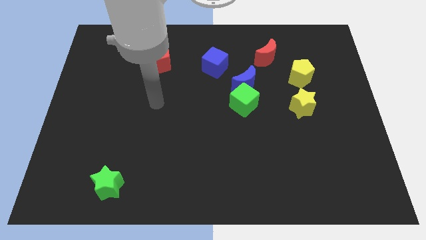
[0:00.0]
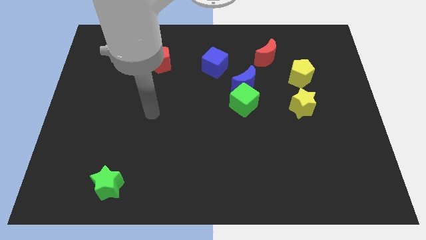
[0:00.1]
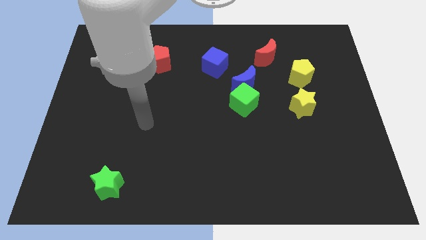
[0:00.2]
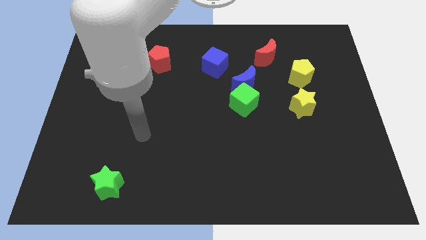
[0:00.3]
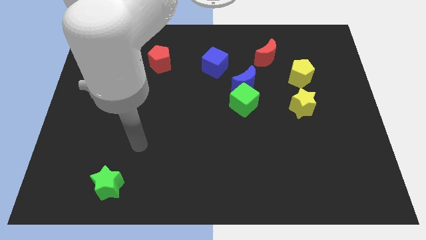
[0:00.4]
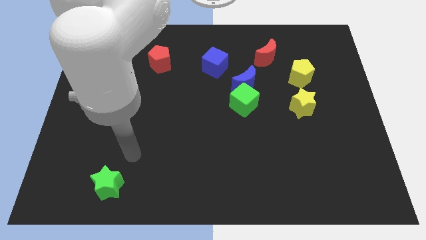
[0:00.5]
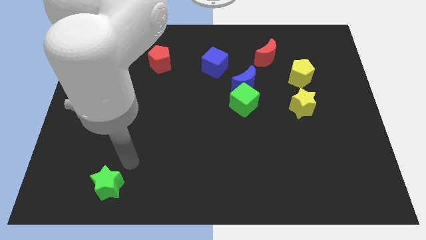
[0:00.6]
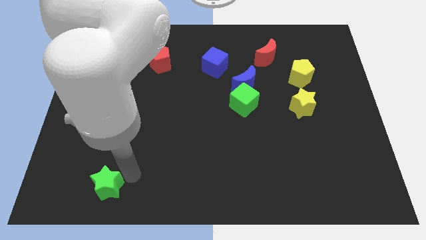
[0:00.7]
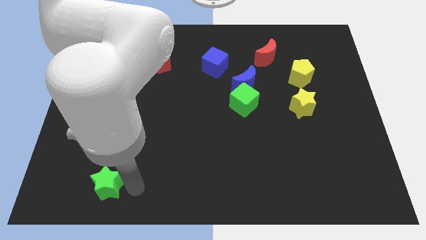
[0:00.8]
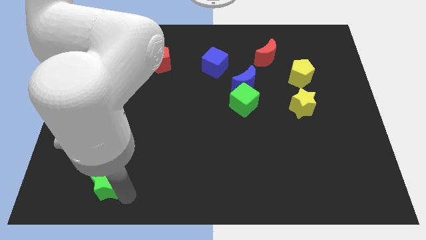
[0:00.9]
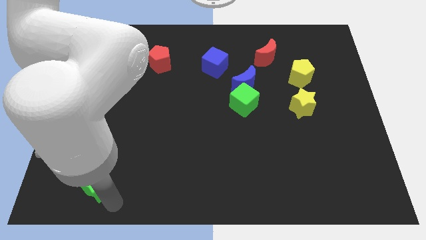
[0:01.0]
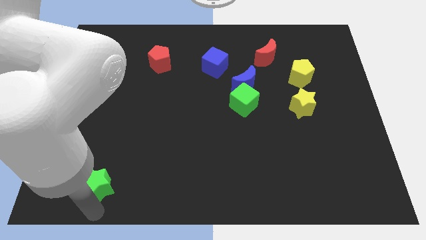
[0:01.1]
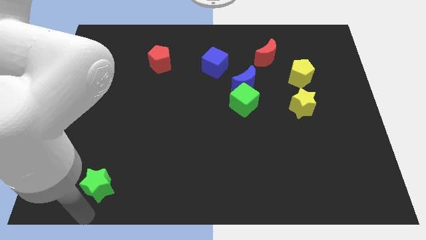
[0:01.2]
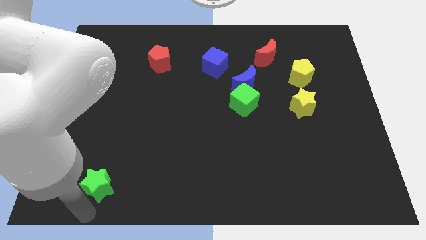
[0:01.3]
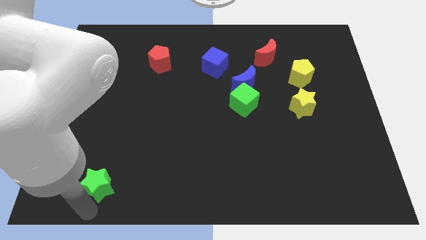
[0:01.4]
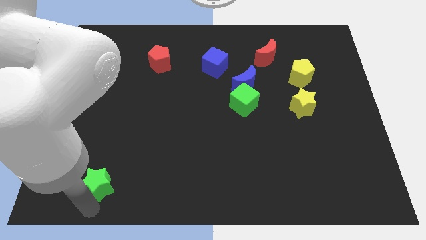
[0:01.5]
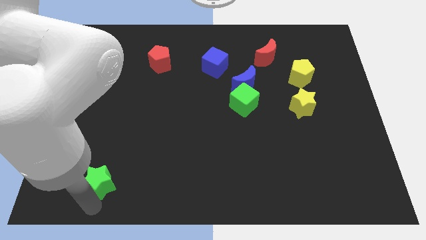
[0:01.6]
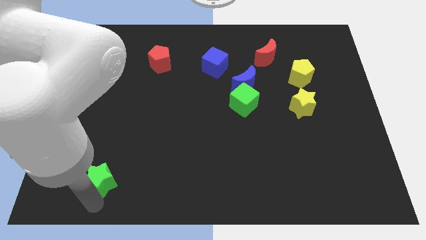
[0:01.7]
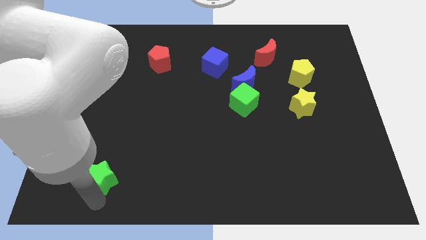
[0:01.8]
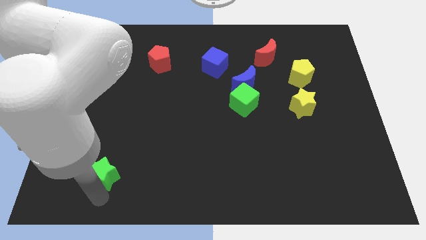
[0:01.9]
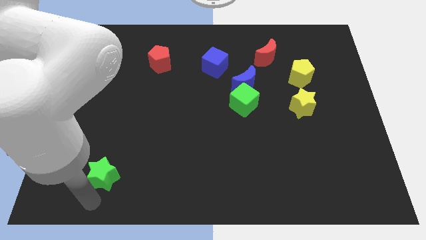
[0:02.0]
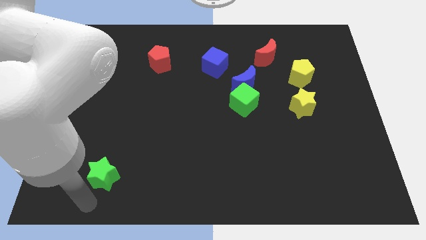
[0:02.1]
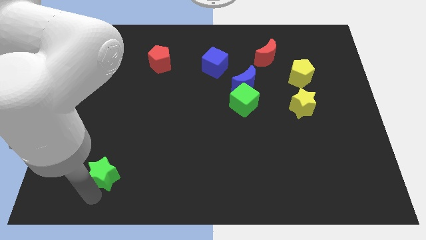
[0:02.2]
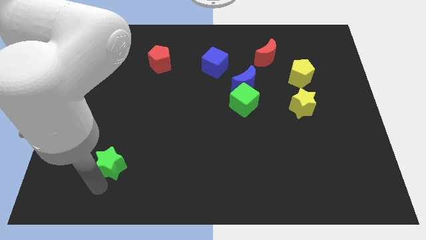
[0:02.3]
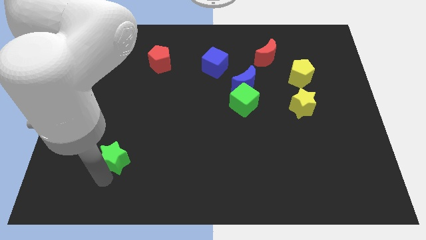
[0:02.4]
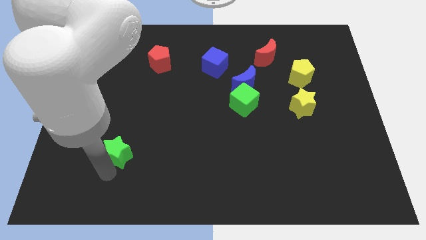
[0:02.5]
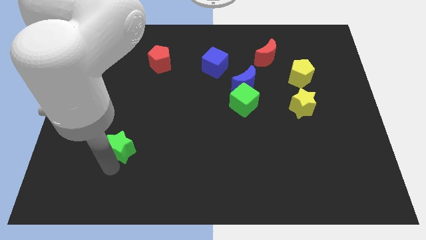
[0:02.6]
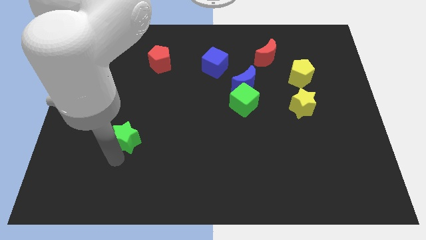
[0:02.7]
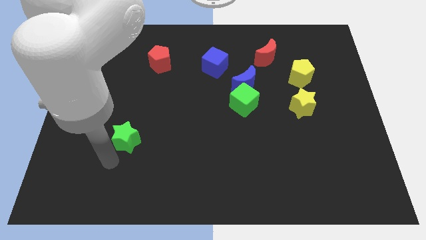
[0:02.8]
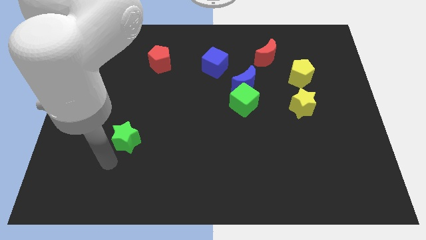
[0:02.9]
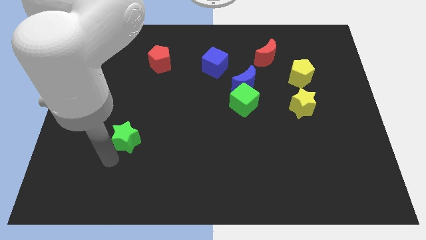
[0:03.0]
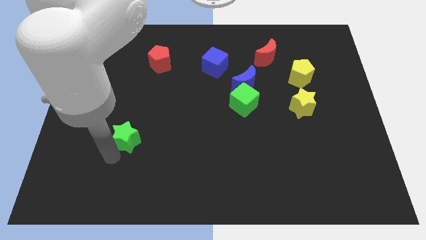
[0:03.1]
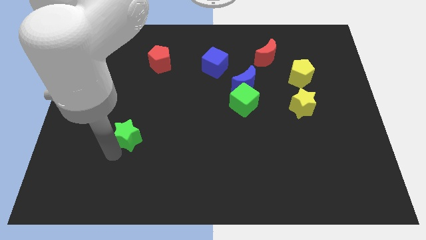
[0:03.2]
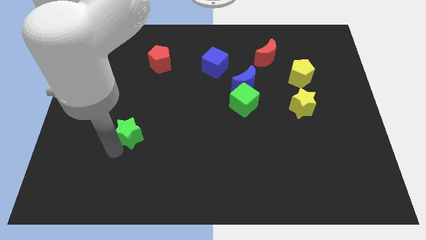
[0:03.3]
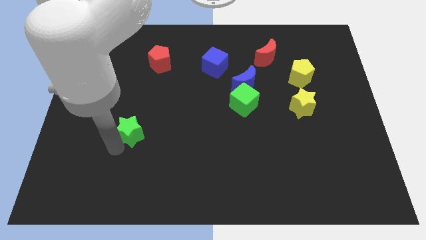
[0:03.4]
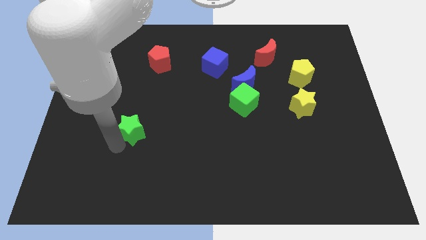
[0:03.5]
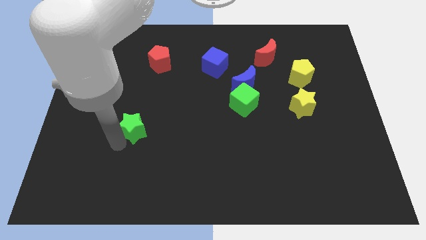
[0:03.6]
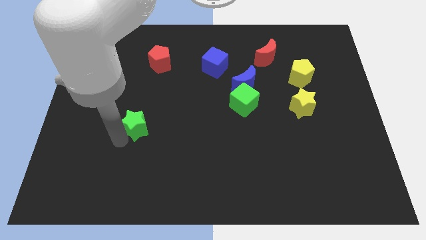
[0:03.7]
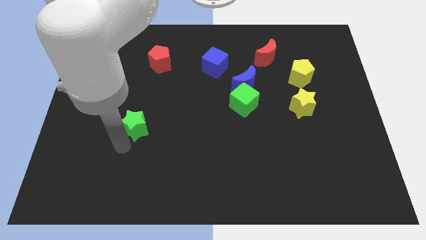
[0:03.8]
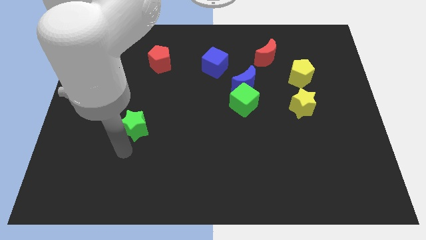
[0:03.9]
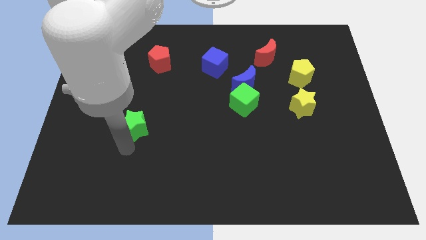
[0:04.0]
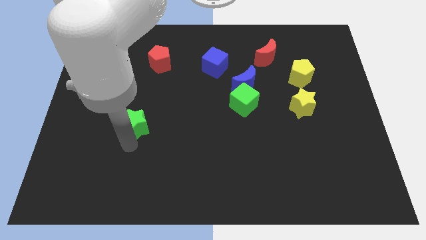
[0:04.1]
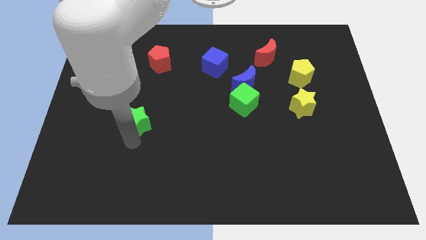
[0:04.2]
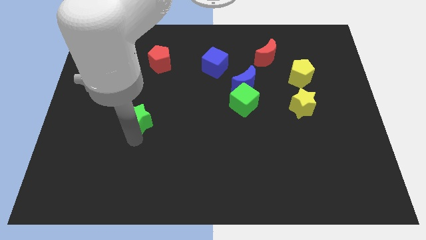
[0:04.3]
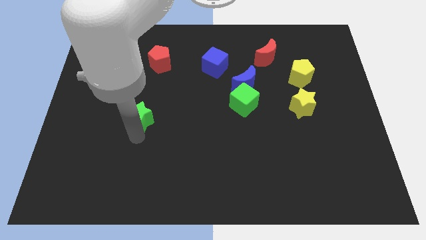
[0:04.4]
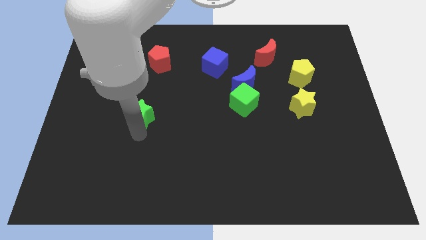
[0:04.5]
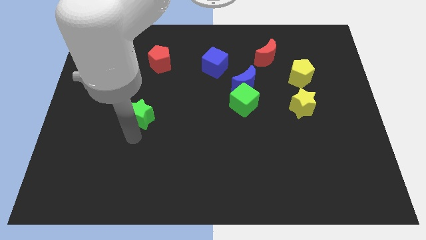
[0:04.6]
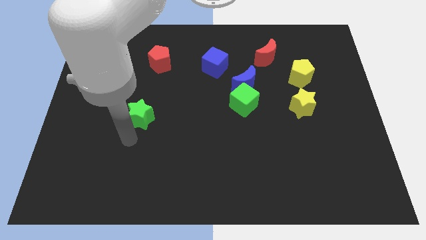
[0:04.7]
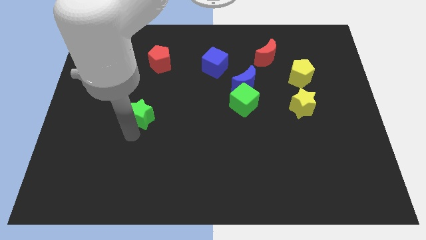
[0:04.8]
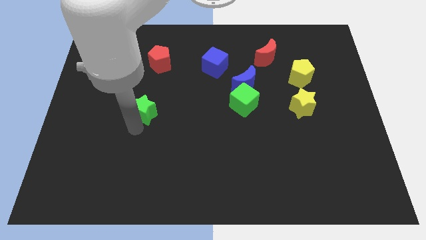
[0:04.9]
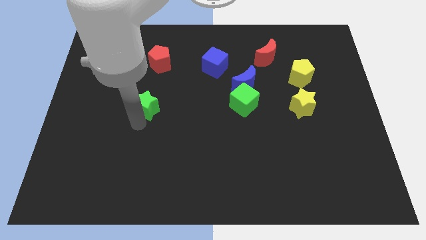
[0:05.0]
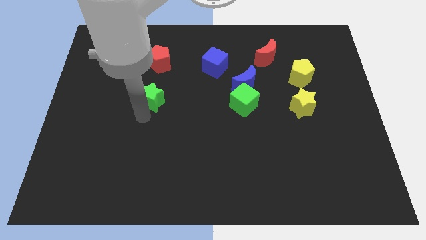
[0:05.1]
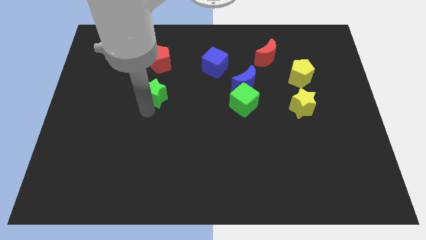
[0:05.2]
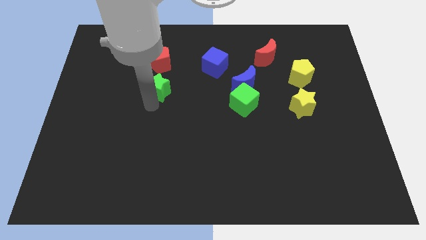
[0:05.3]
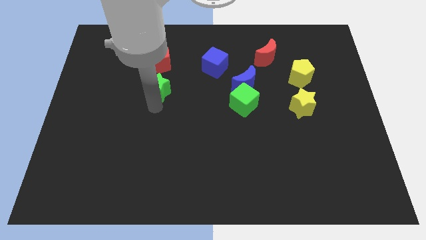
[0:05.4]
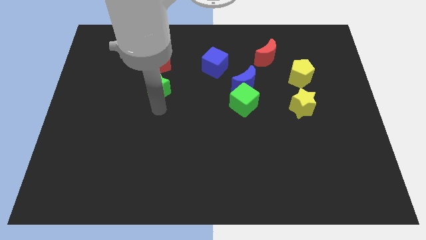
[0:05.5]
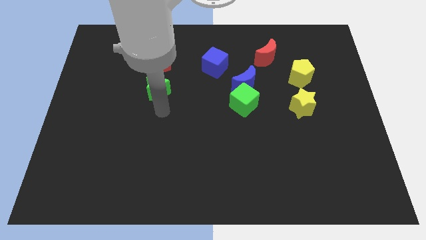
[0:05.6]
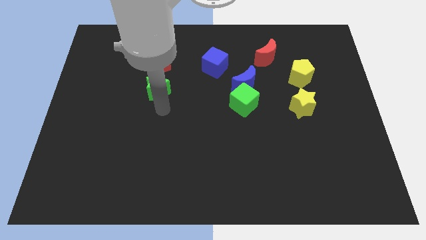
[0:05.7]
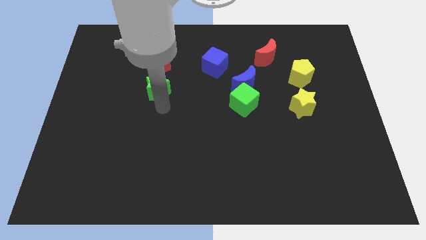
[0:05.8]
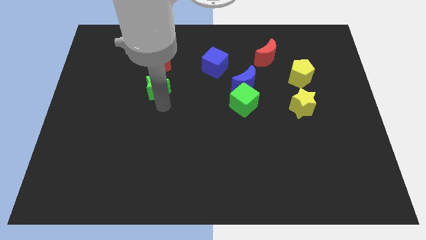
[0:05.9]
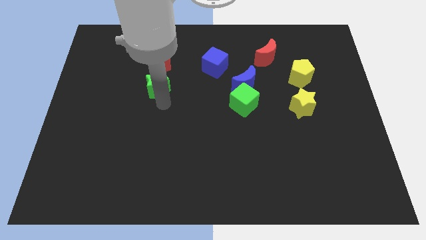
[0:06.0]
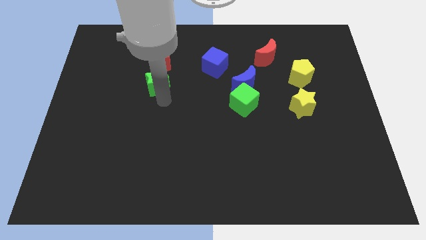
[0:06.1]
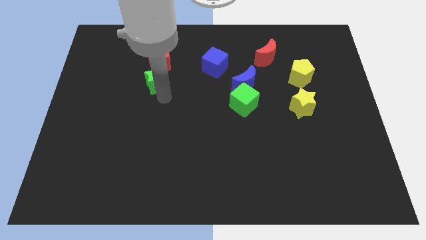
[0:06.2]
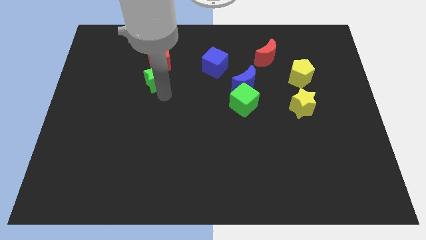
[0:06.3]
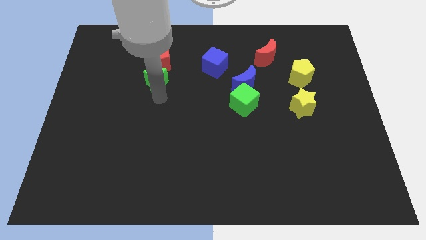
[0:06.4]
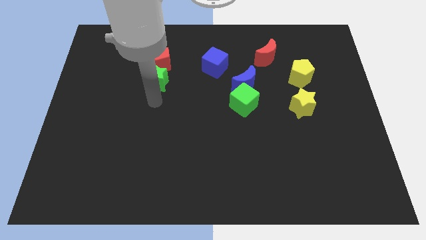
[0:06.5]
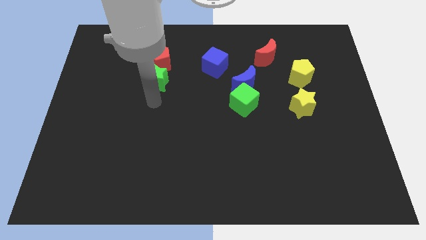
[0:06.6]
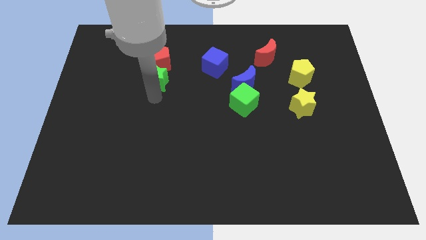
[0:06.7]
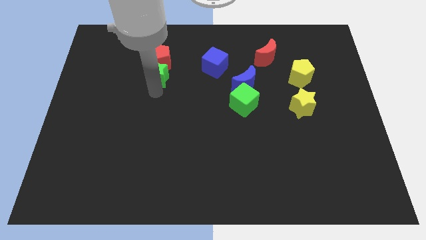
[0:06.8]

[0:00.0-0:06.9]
slide the green star to the red pentagon
